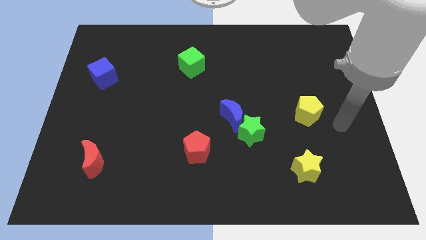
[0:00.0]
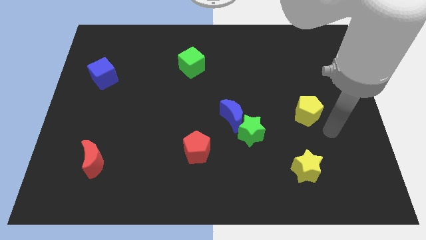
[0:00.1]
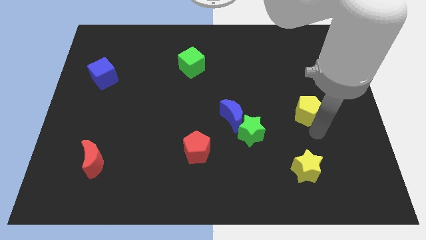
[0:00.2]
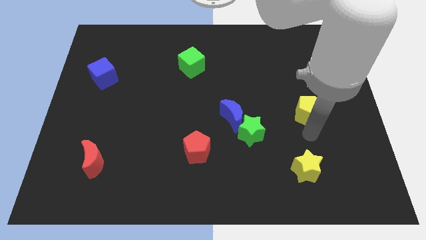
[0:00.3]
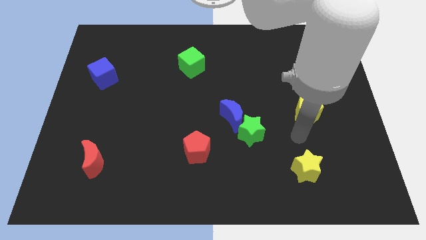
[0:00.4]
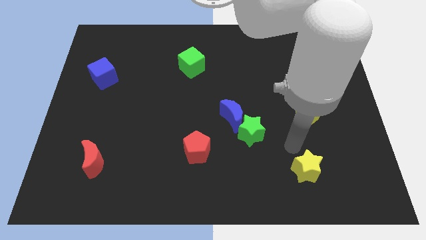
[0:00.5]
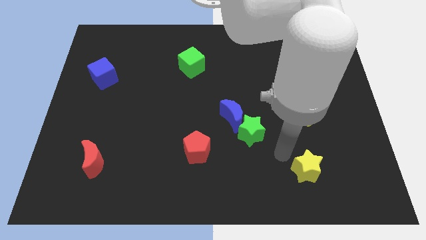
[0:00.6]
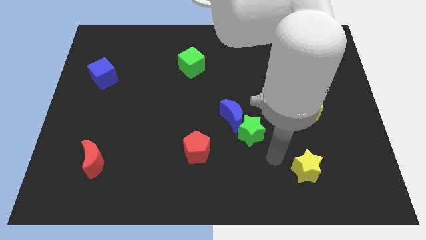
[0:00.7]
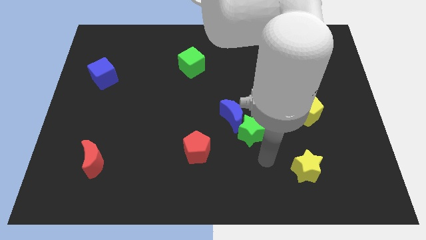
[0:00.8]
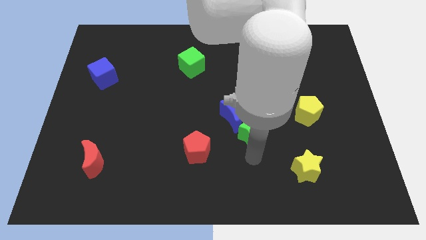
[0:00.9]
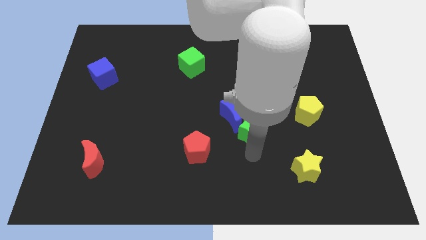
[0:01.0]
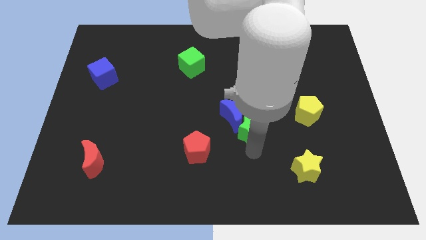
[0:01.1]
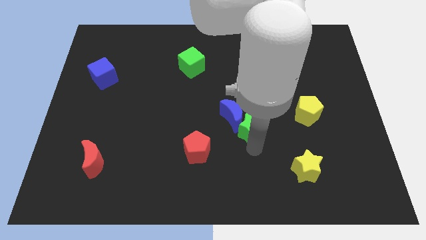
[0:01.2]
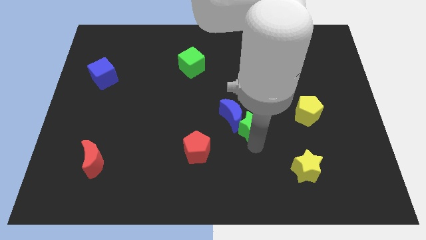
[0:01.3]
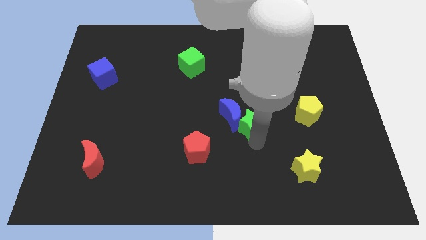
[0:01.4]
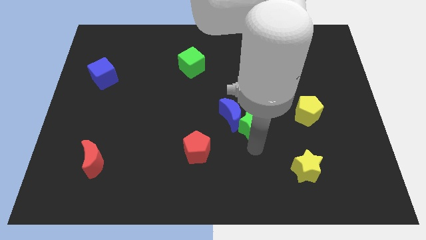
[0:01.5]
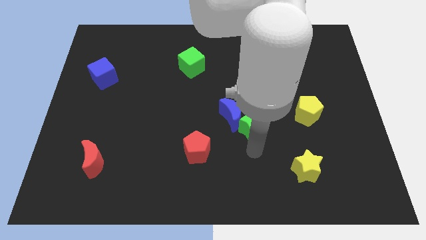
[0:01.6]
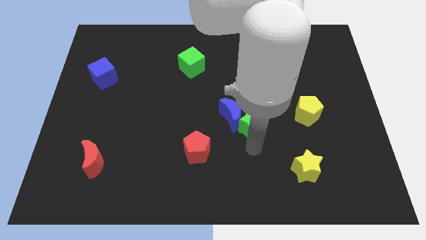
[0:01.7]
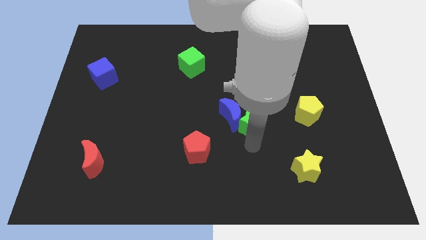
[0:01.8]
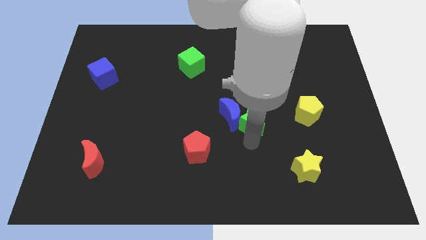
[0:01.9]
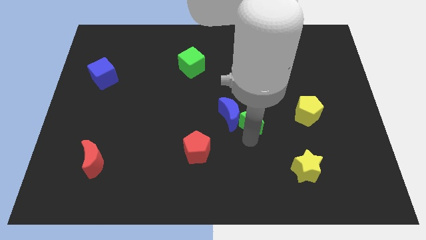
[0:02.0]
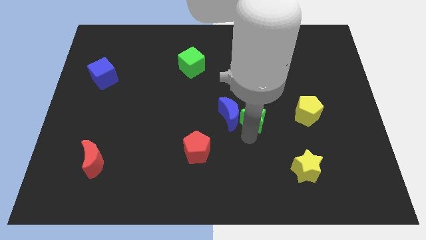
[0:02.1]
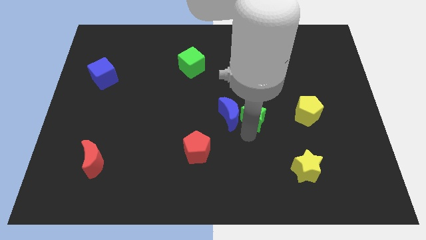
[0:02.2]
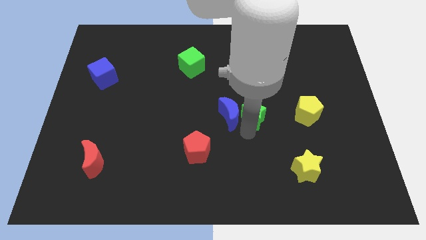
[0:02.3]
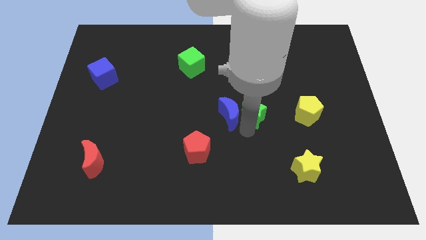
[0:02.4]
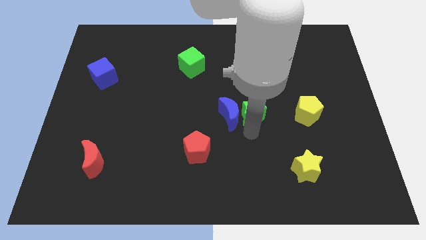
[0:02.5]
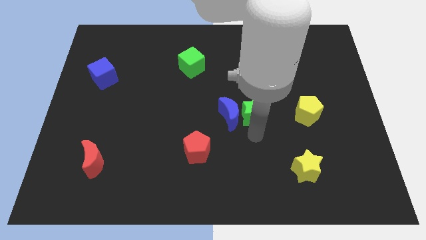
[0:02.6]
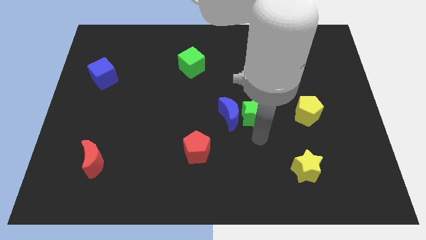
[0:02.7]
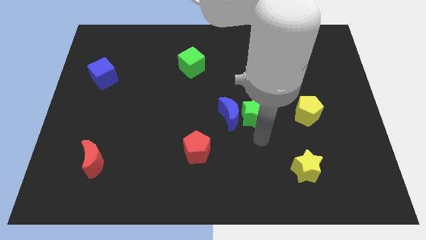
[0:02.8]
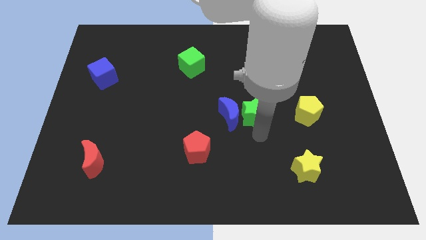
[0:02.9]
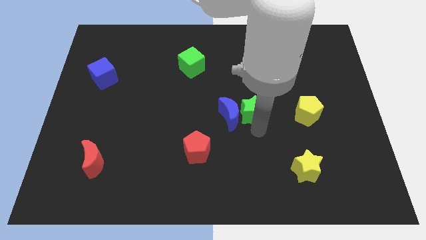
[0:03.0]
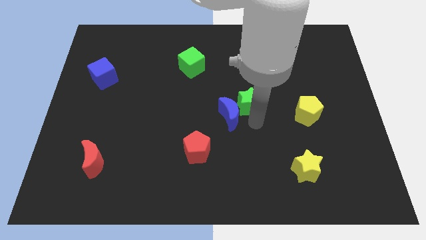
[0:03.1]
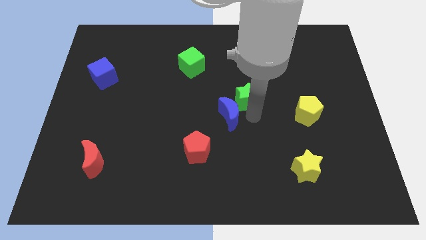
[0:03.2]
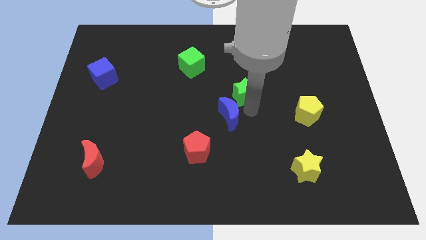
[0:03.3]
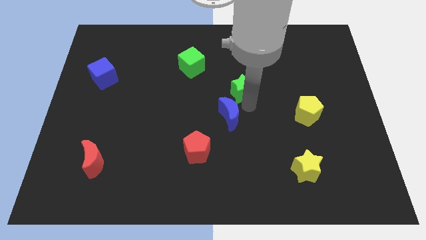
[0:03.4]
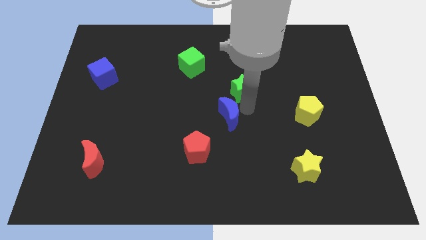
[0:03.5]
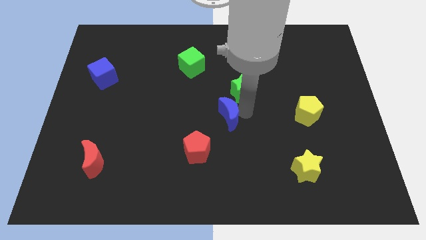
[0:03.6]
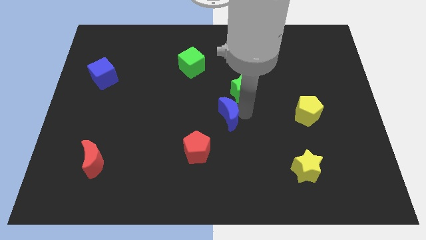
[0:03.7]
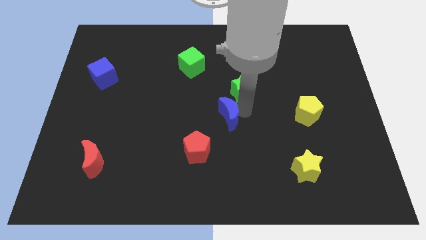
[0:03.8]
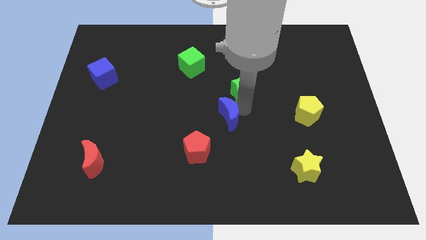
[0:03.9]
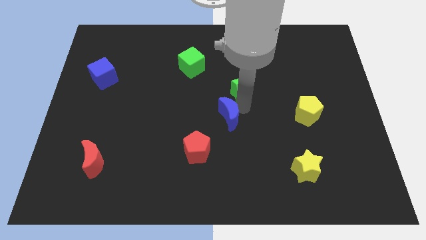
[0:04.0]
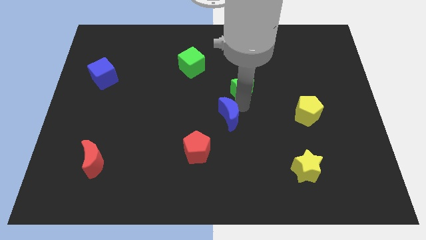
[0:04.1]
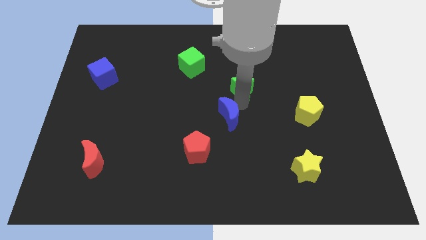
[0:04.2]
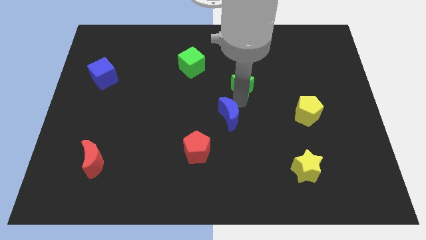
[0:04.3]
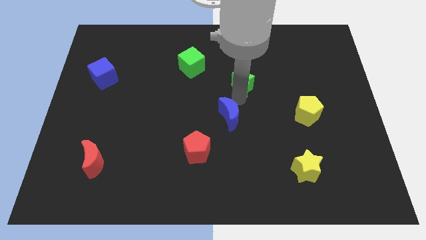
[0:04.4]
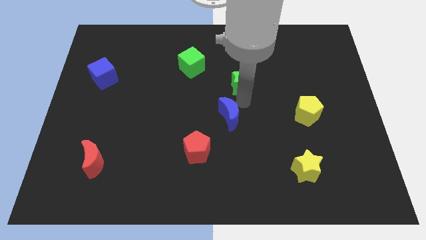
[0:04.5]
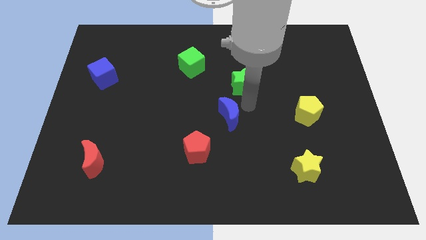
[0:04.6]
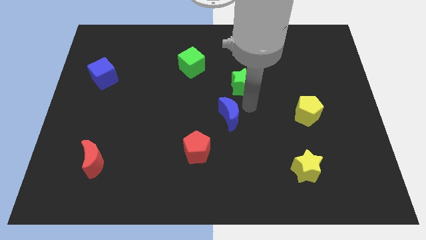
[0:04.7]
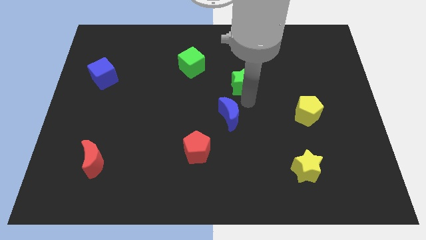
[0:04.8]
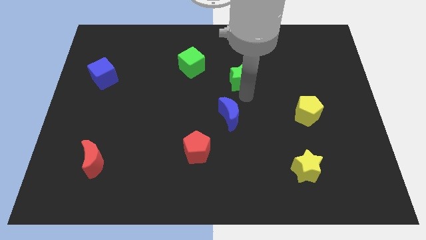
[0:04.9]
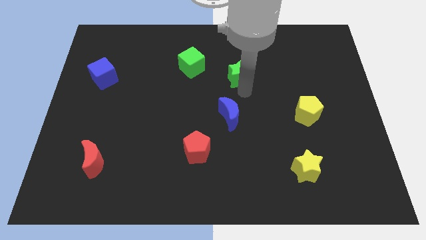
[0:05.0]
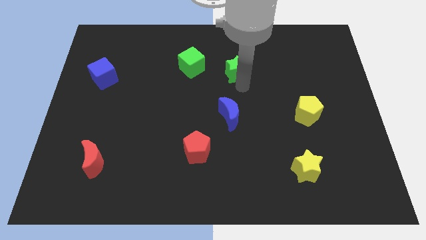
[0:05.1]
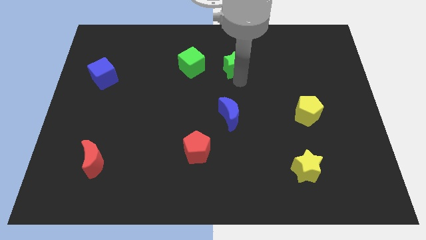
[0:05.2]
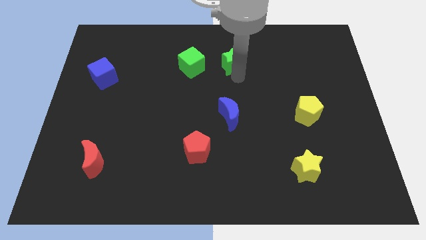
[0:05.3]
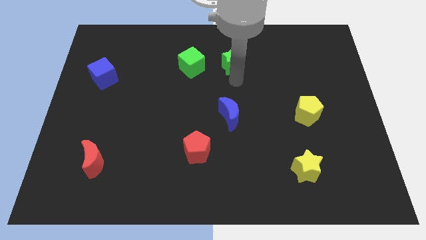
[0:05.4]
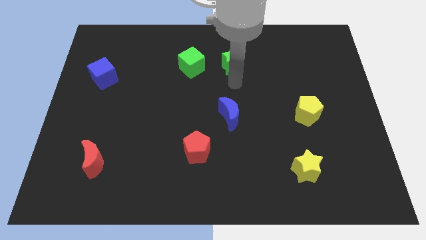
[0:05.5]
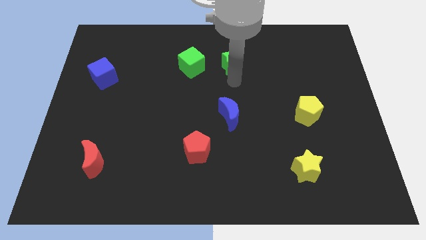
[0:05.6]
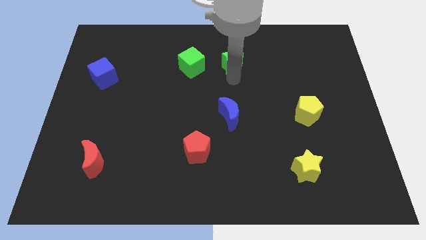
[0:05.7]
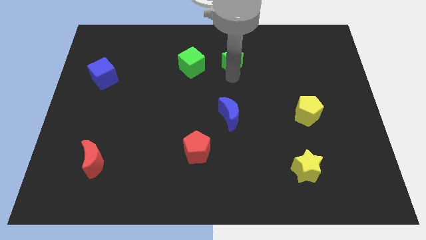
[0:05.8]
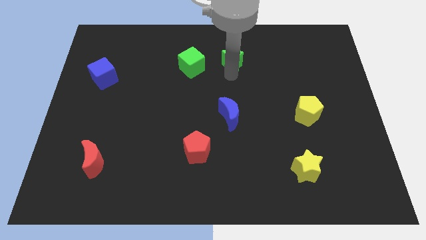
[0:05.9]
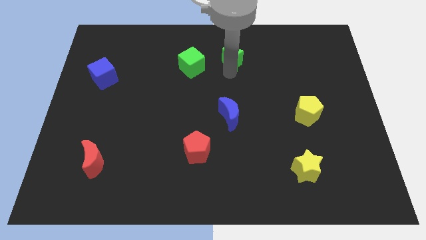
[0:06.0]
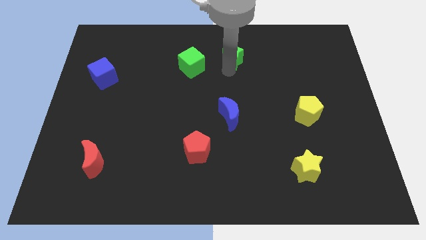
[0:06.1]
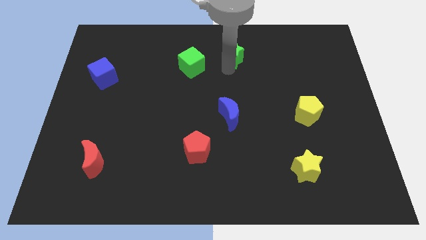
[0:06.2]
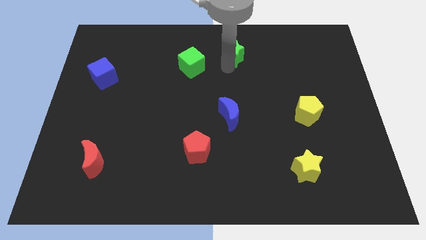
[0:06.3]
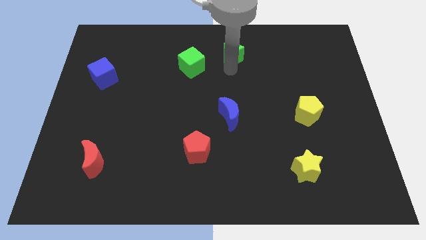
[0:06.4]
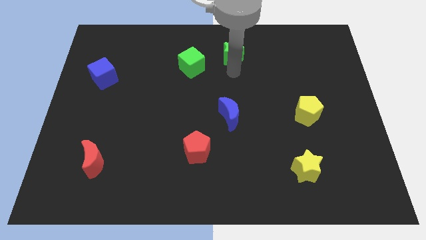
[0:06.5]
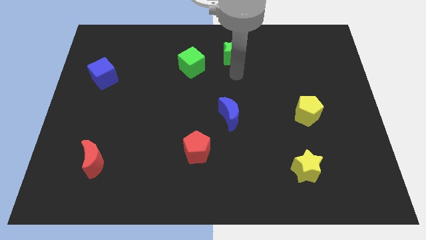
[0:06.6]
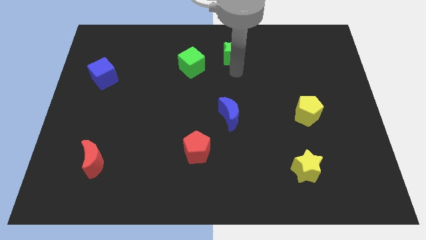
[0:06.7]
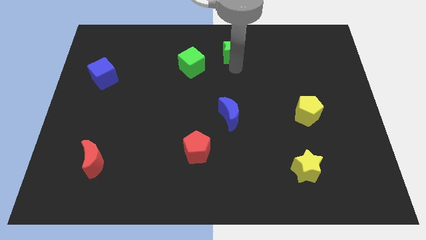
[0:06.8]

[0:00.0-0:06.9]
slide the green star to the top
